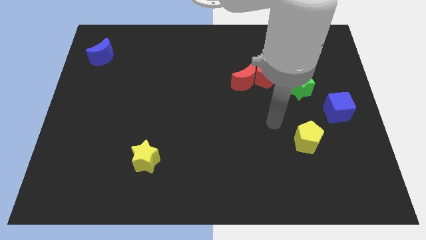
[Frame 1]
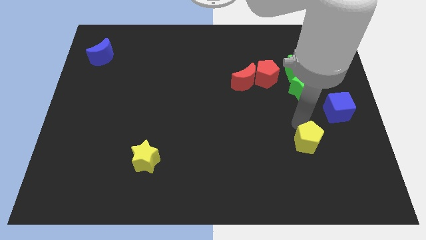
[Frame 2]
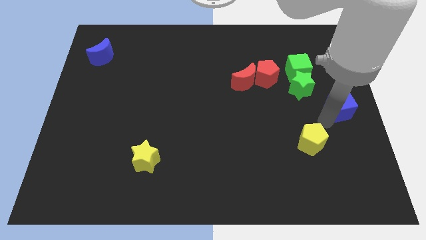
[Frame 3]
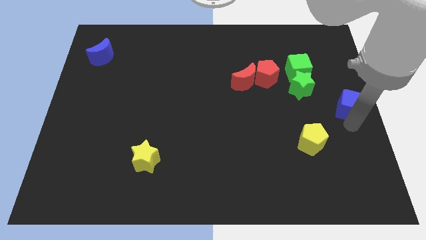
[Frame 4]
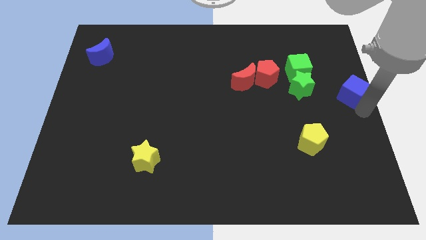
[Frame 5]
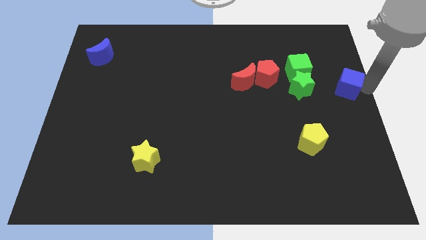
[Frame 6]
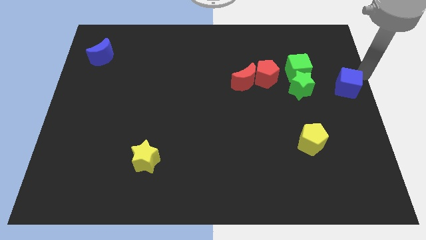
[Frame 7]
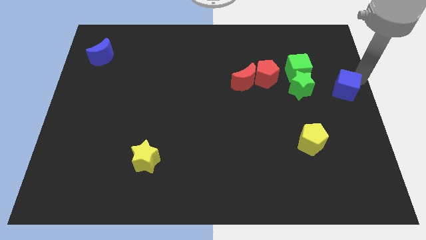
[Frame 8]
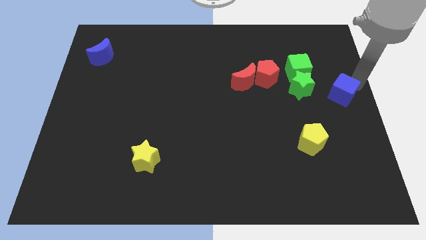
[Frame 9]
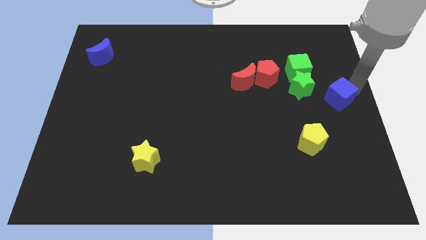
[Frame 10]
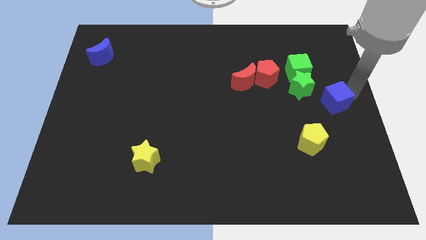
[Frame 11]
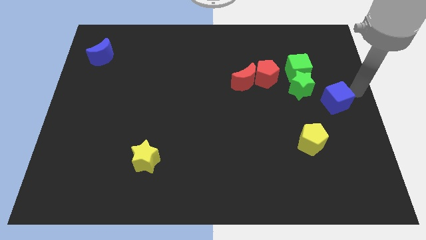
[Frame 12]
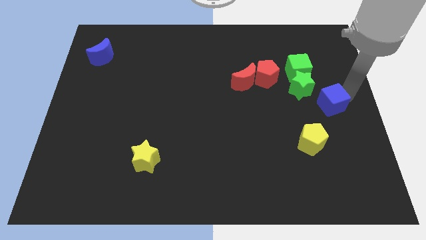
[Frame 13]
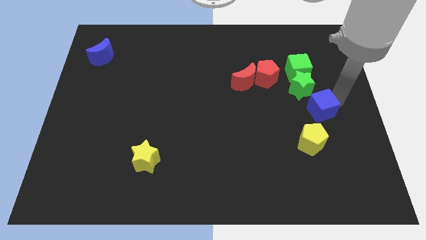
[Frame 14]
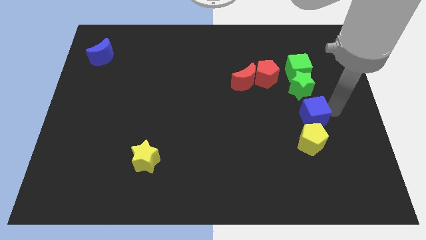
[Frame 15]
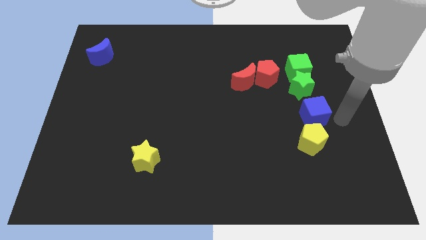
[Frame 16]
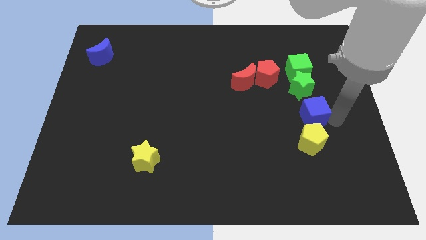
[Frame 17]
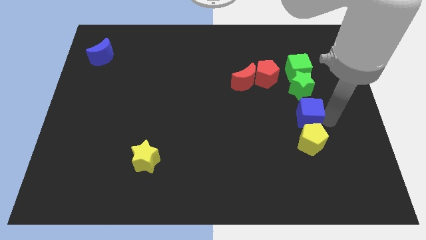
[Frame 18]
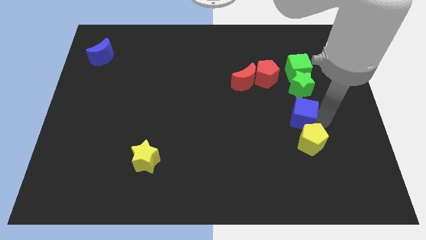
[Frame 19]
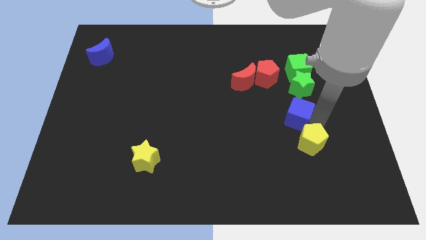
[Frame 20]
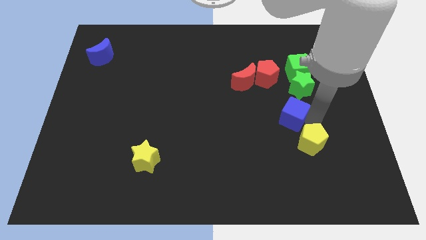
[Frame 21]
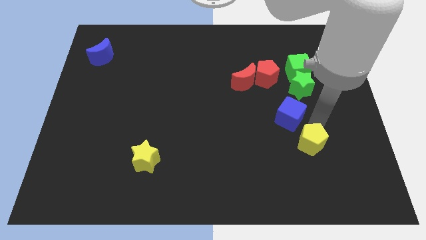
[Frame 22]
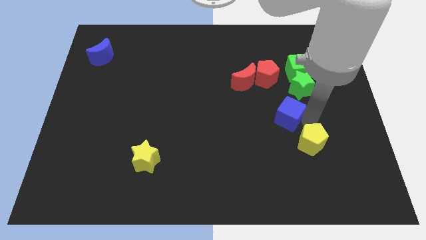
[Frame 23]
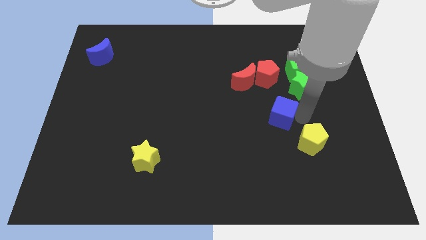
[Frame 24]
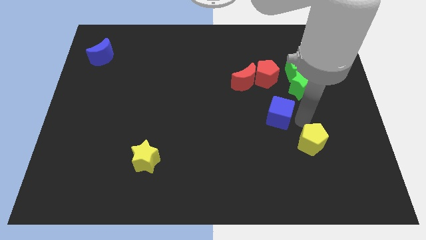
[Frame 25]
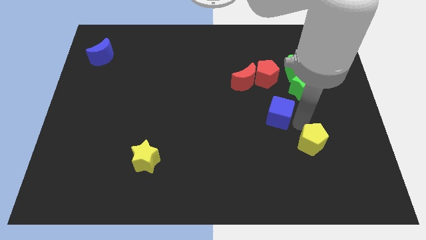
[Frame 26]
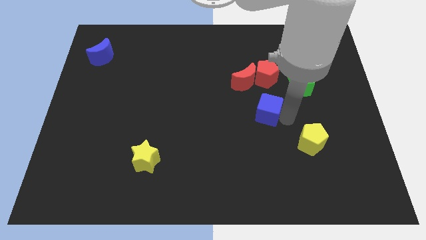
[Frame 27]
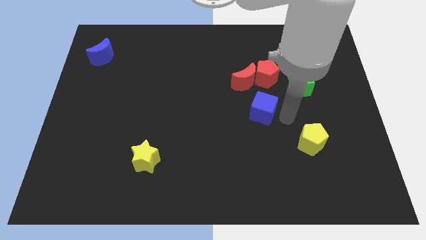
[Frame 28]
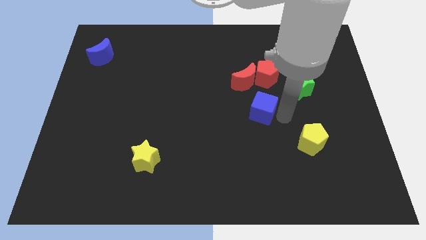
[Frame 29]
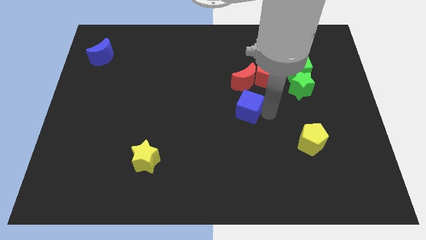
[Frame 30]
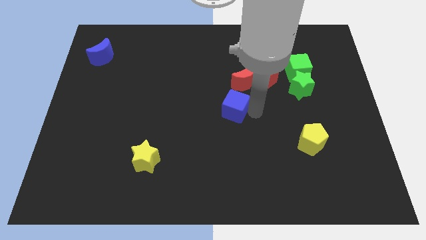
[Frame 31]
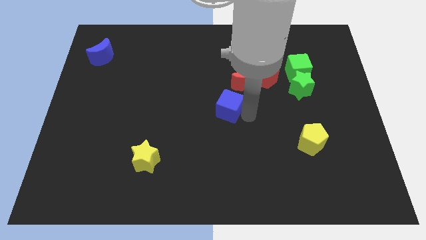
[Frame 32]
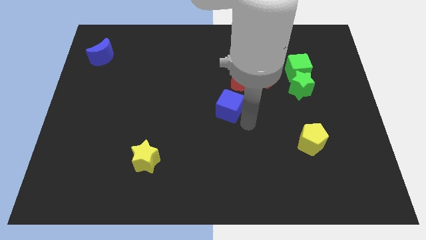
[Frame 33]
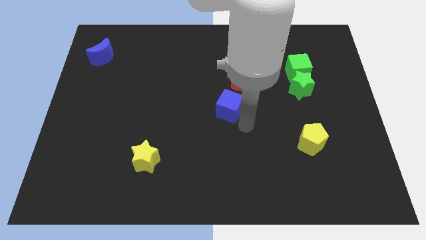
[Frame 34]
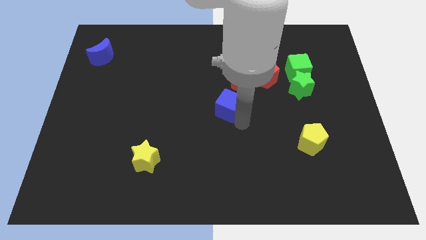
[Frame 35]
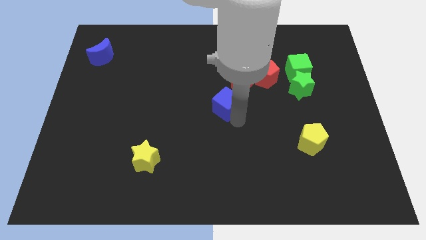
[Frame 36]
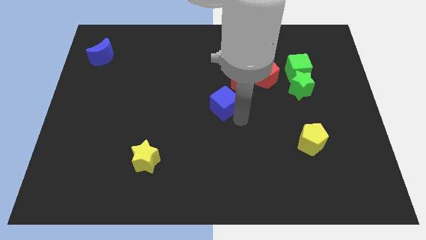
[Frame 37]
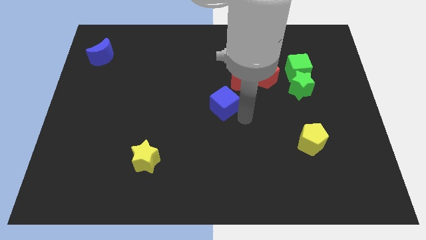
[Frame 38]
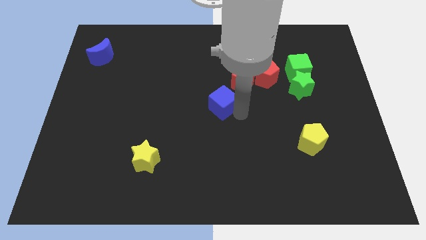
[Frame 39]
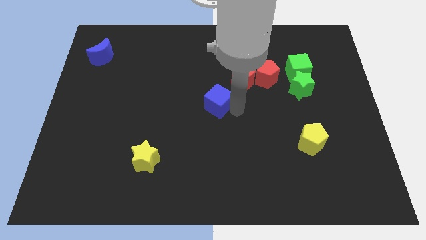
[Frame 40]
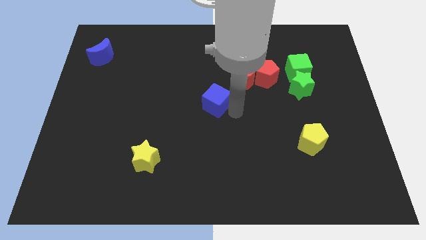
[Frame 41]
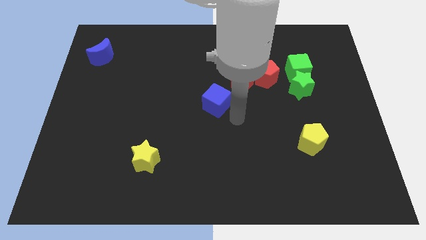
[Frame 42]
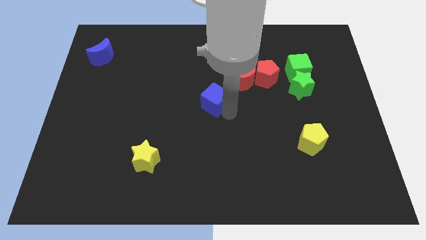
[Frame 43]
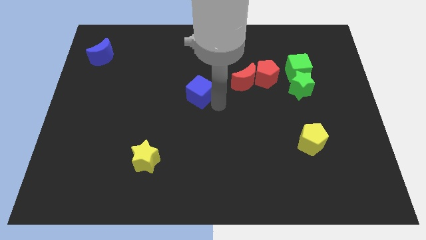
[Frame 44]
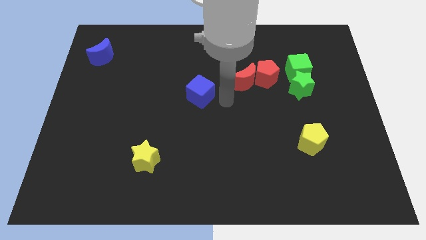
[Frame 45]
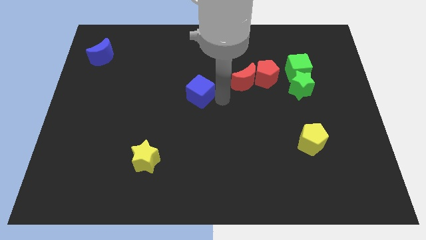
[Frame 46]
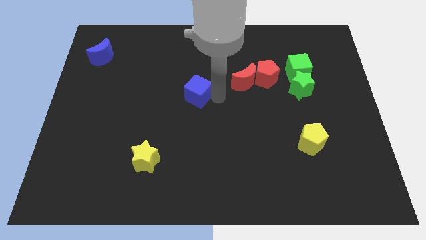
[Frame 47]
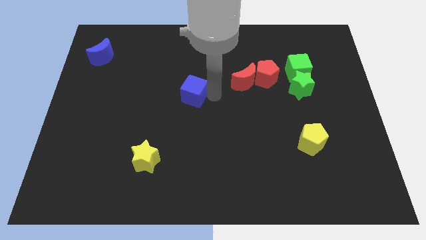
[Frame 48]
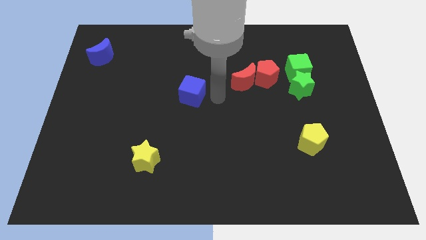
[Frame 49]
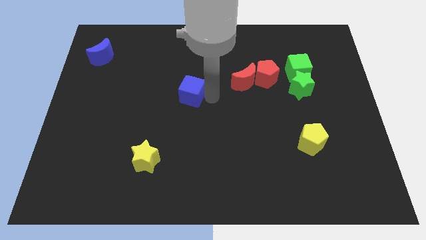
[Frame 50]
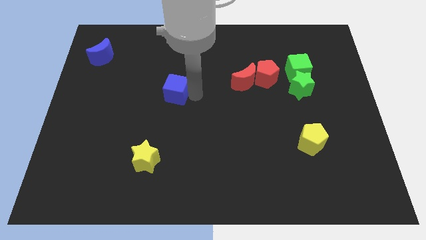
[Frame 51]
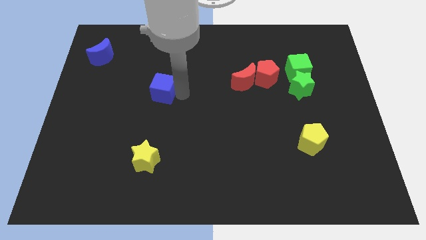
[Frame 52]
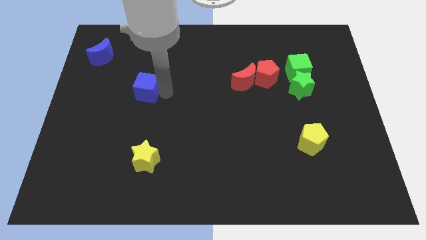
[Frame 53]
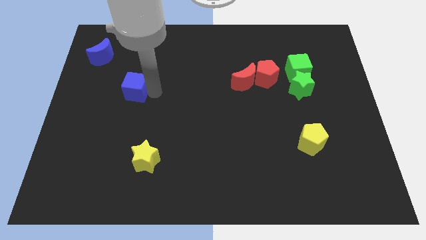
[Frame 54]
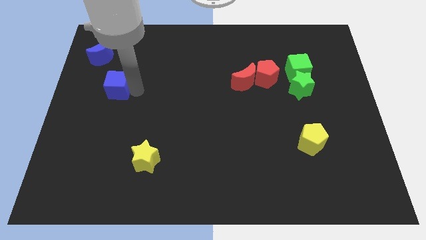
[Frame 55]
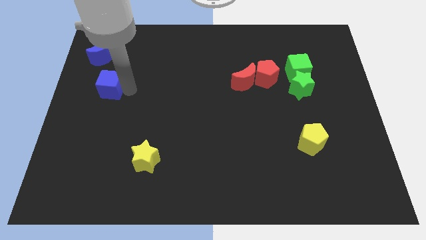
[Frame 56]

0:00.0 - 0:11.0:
push the blue cube to the bottom of the blue moon

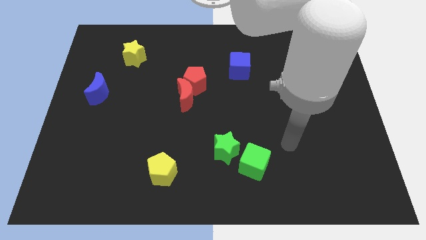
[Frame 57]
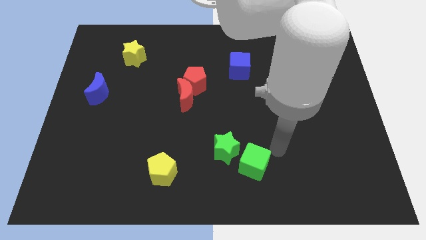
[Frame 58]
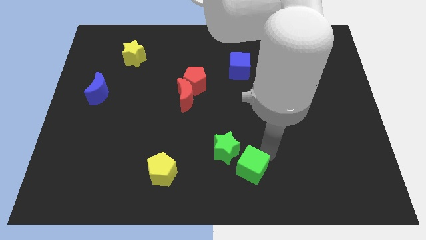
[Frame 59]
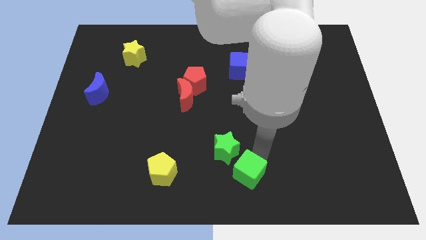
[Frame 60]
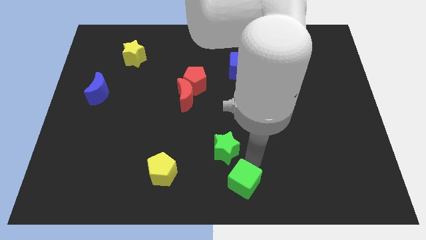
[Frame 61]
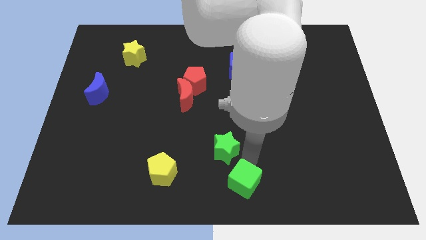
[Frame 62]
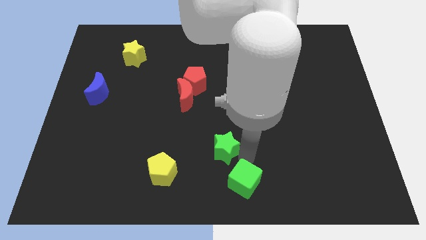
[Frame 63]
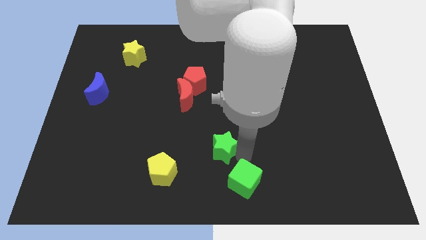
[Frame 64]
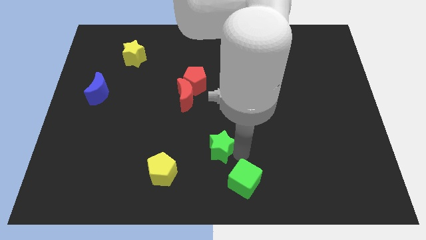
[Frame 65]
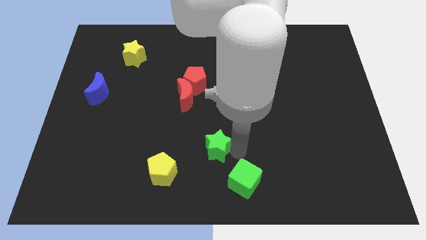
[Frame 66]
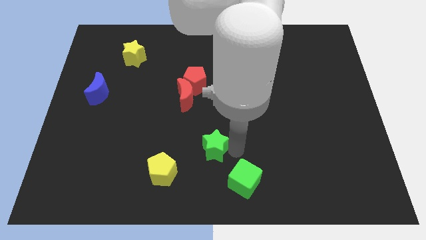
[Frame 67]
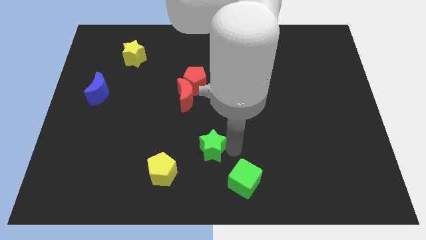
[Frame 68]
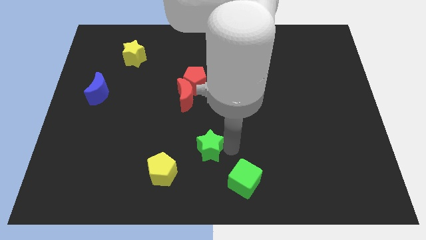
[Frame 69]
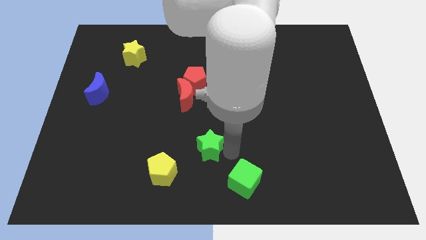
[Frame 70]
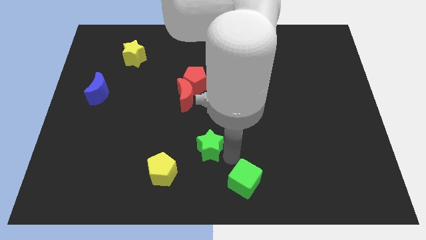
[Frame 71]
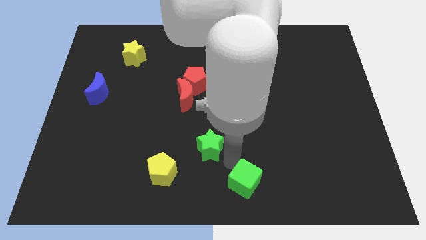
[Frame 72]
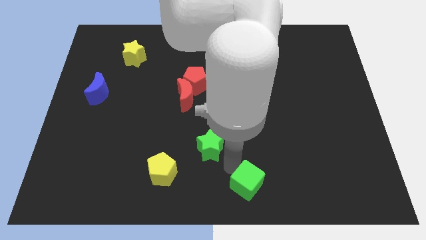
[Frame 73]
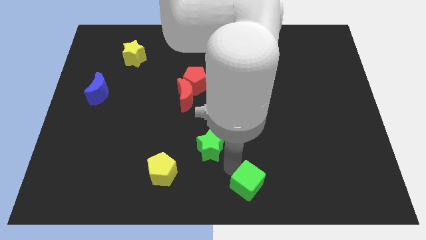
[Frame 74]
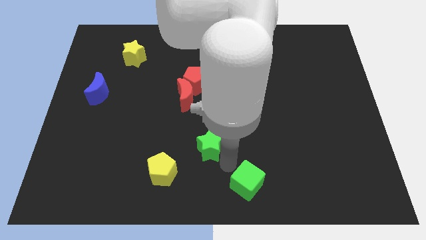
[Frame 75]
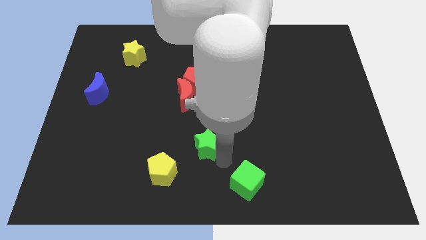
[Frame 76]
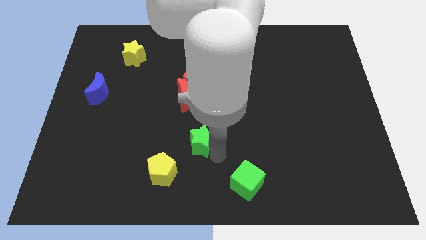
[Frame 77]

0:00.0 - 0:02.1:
push the green star to the bottom side of the red moon
